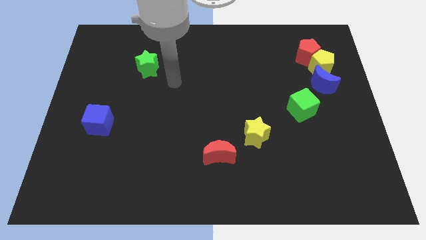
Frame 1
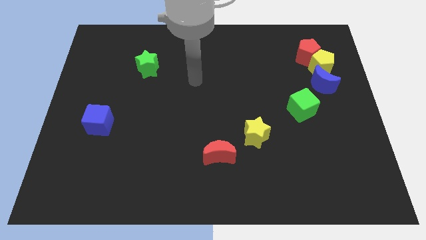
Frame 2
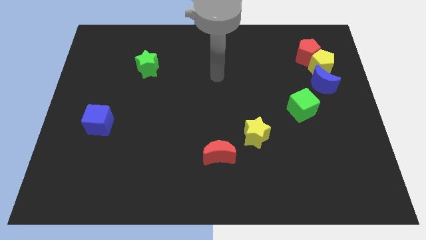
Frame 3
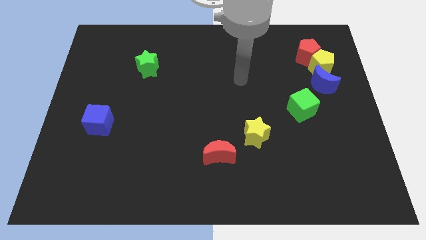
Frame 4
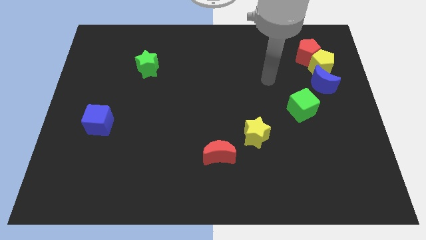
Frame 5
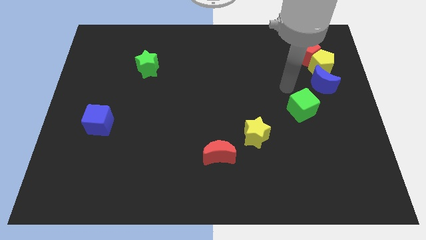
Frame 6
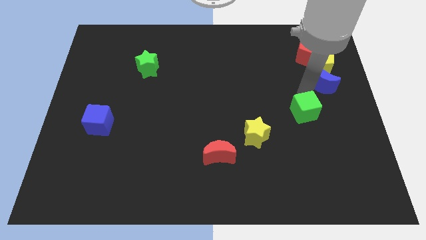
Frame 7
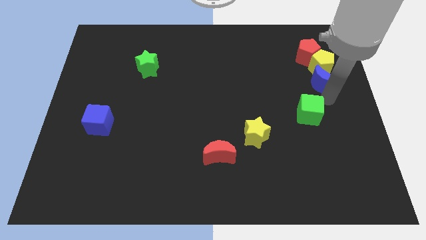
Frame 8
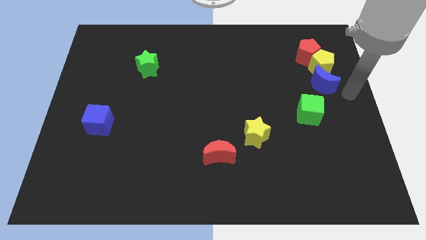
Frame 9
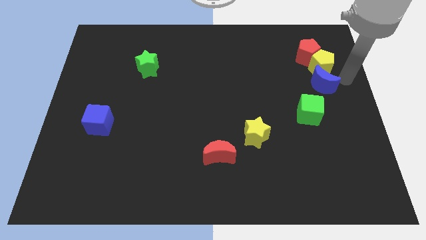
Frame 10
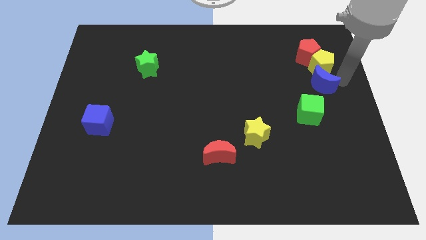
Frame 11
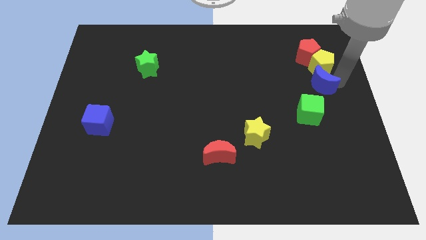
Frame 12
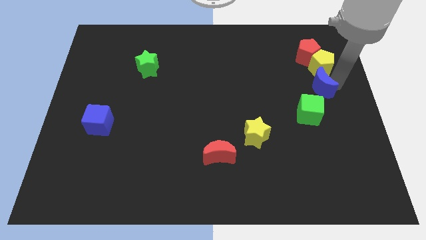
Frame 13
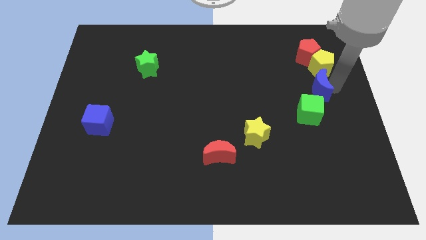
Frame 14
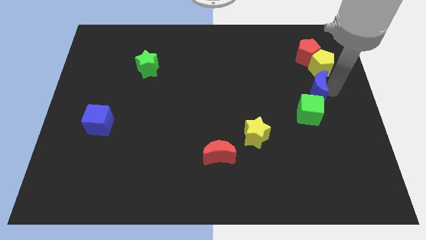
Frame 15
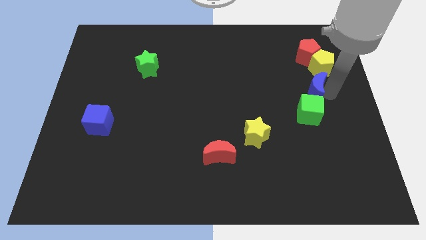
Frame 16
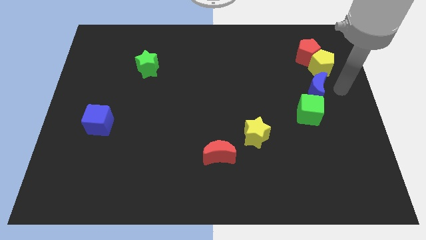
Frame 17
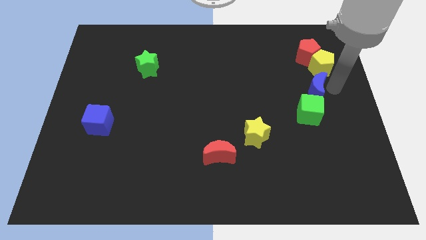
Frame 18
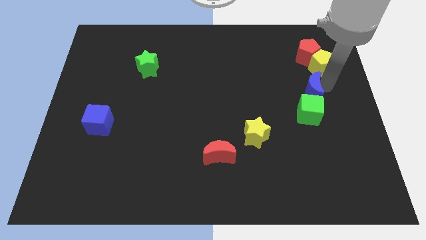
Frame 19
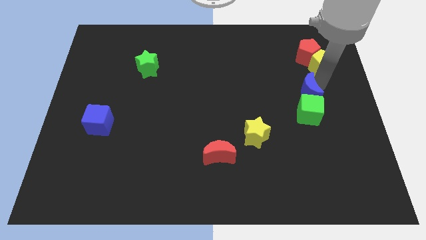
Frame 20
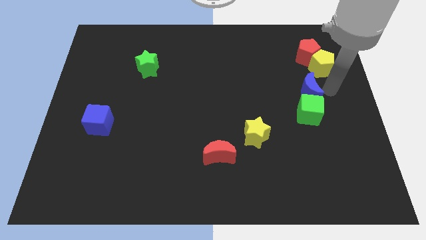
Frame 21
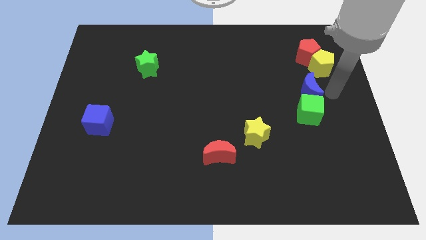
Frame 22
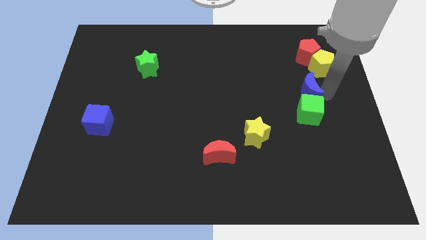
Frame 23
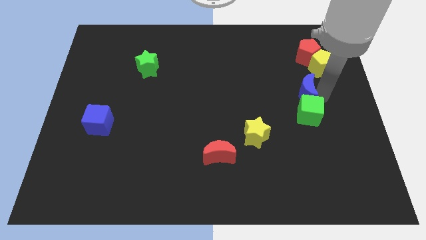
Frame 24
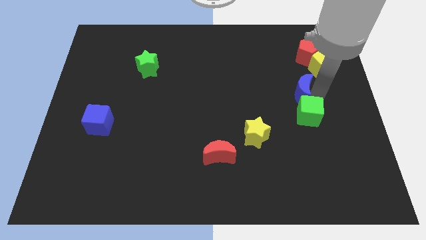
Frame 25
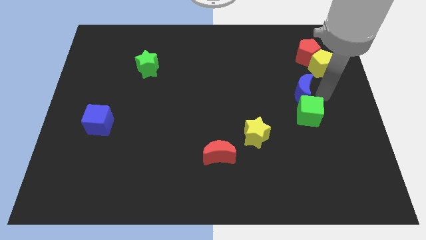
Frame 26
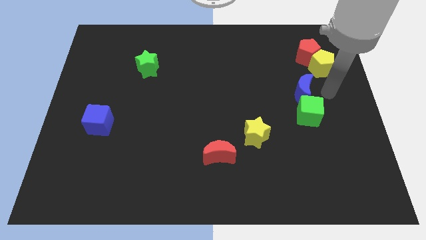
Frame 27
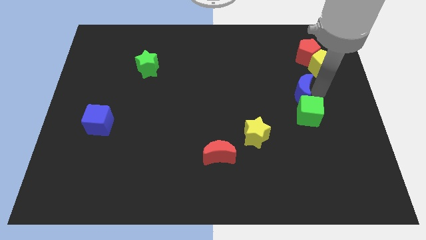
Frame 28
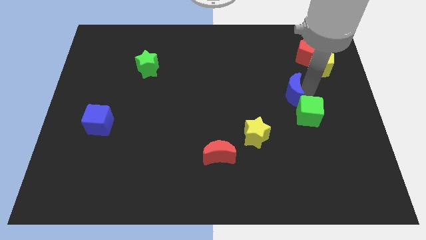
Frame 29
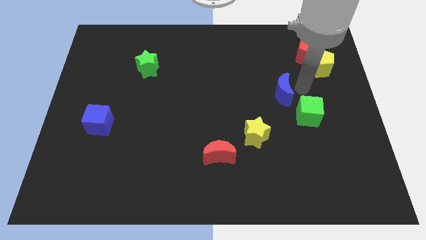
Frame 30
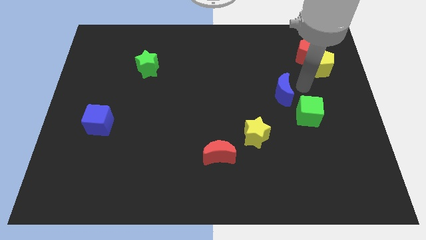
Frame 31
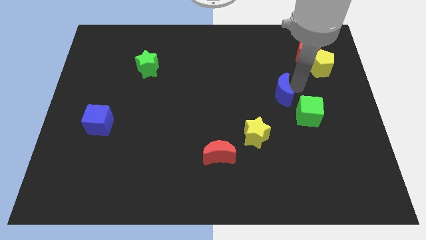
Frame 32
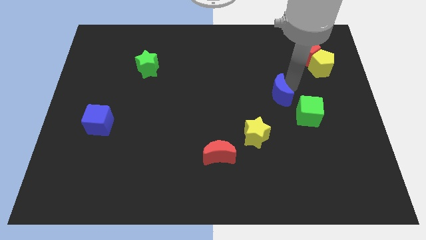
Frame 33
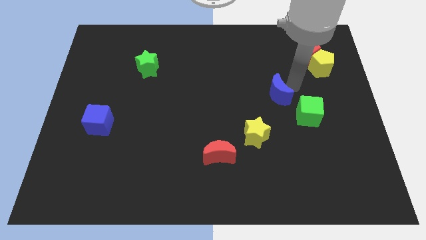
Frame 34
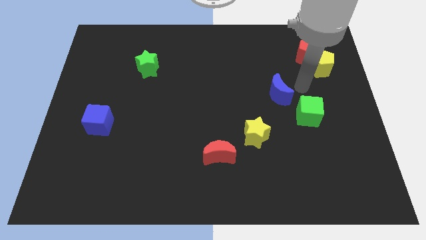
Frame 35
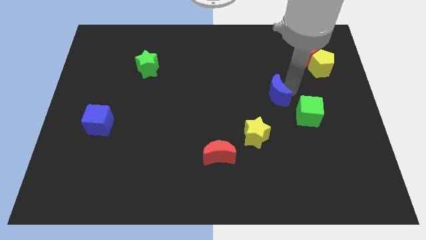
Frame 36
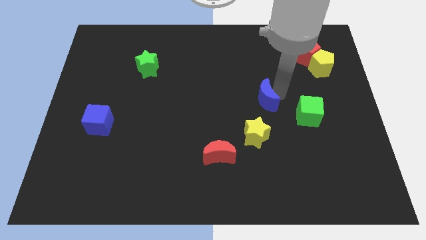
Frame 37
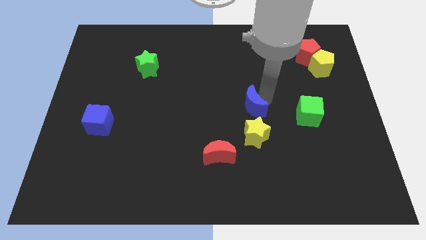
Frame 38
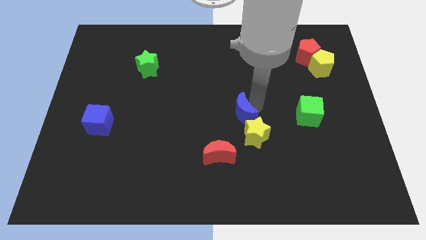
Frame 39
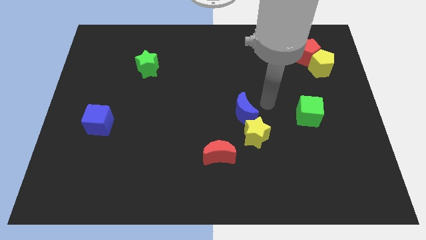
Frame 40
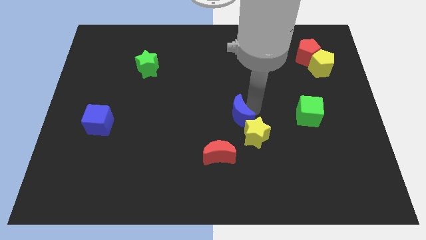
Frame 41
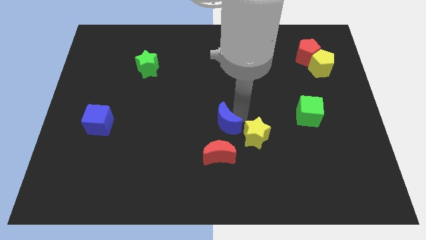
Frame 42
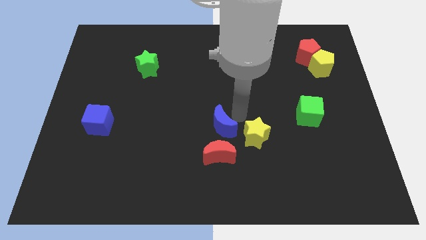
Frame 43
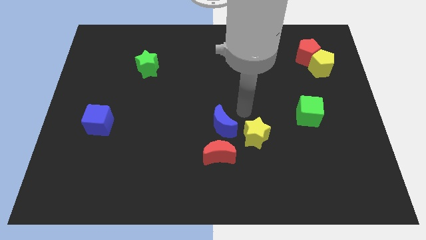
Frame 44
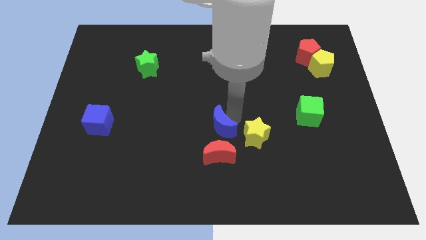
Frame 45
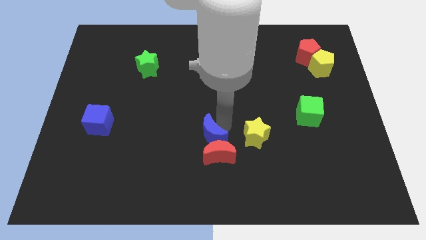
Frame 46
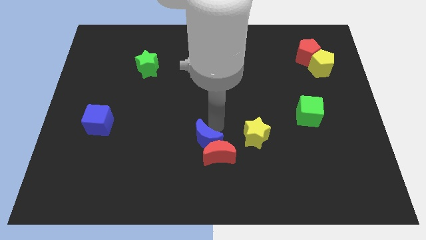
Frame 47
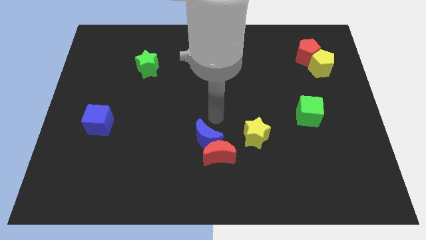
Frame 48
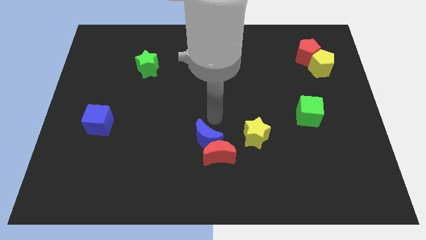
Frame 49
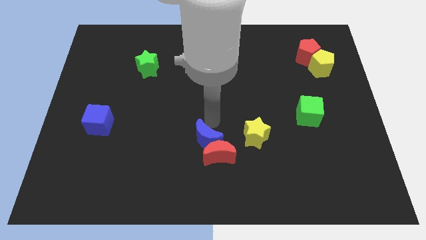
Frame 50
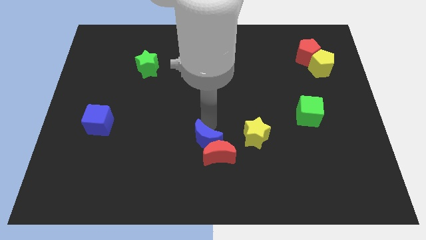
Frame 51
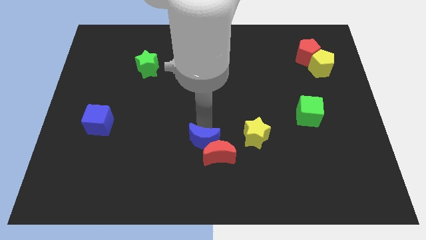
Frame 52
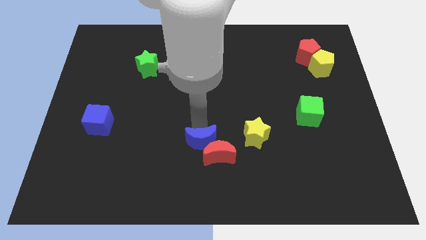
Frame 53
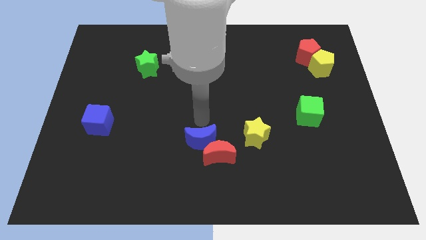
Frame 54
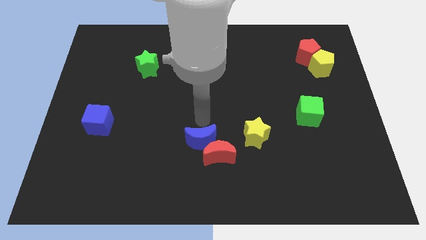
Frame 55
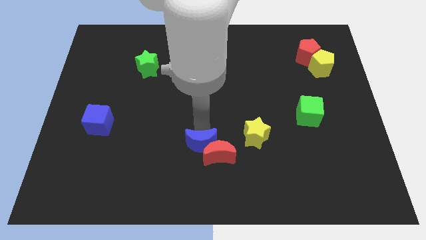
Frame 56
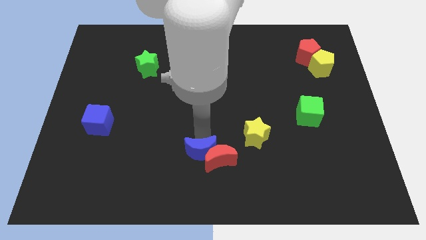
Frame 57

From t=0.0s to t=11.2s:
push the blue moon to the bottom left of the red moon

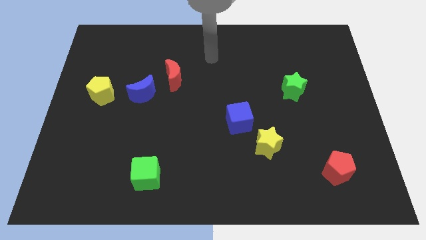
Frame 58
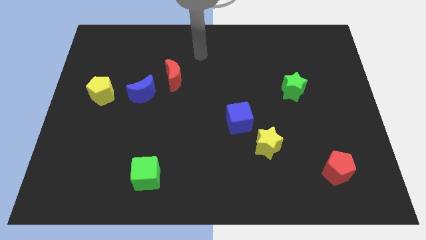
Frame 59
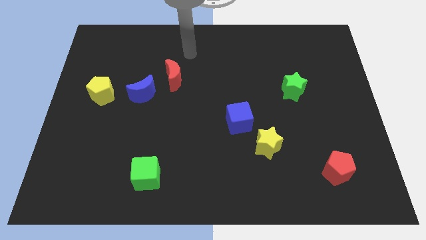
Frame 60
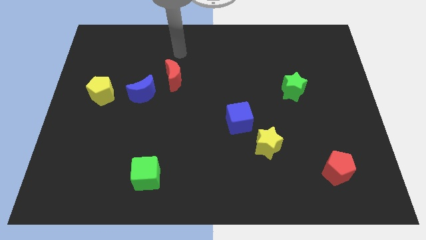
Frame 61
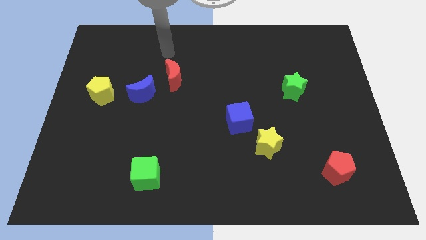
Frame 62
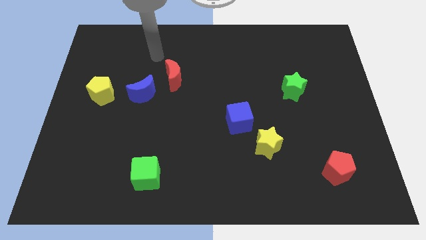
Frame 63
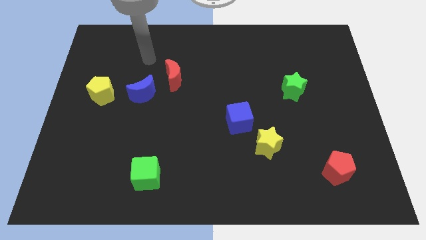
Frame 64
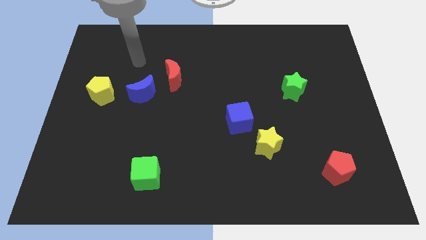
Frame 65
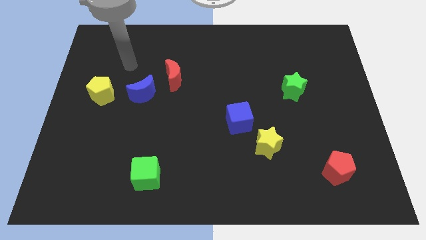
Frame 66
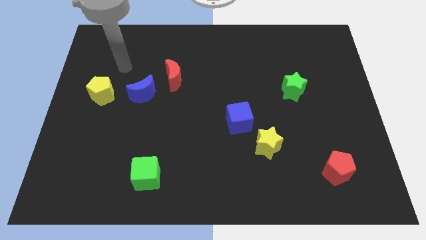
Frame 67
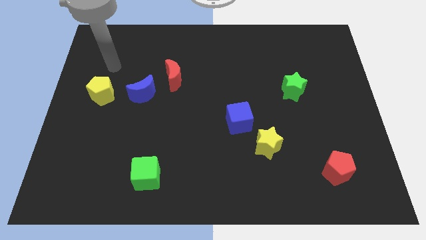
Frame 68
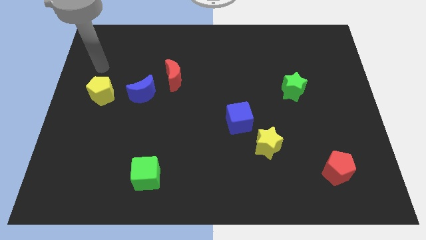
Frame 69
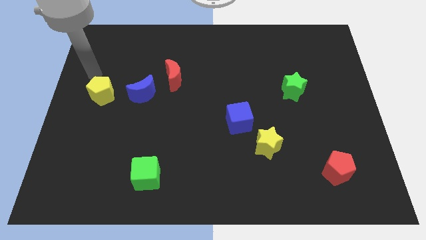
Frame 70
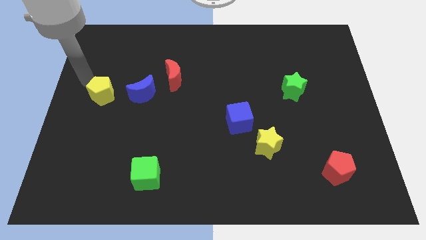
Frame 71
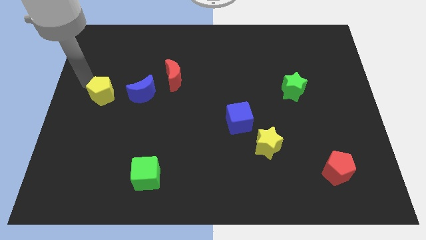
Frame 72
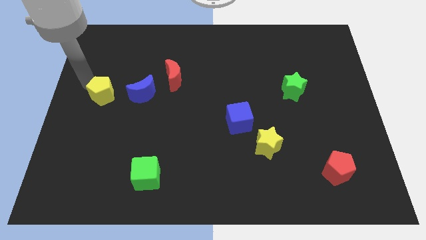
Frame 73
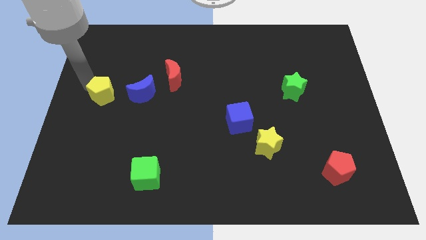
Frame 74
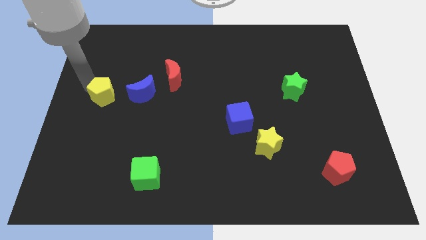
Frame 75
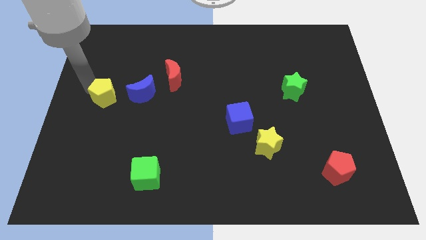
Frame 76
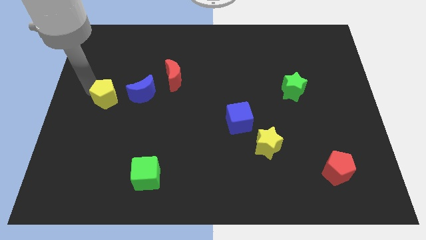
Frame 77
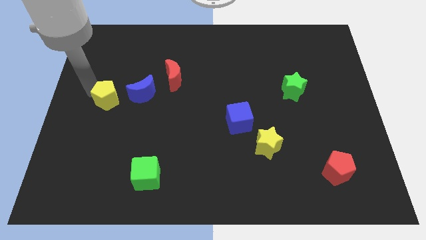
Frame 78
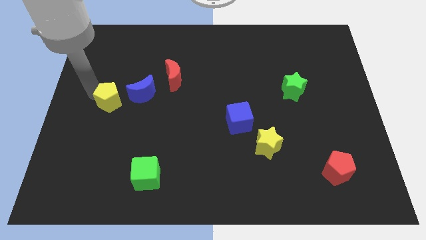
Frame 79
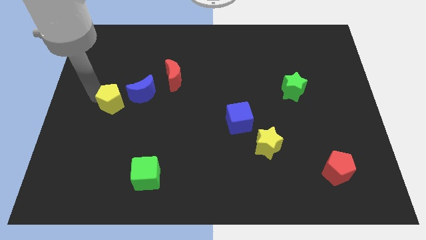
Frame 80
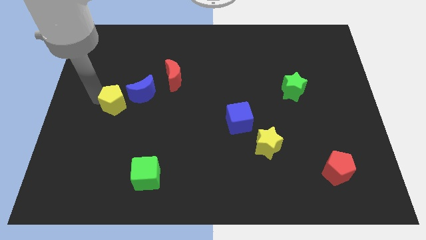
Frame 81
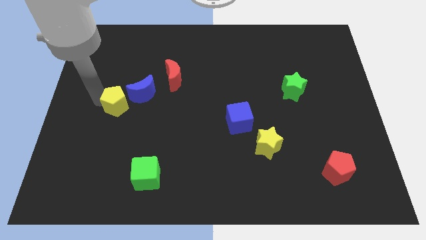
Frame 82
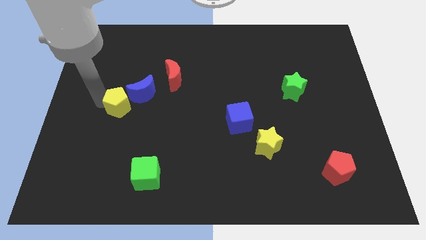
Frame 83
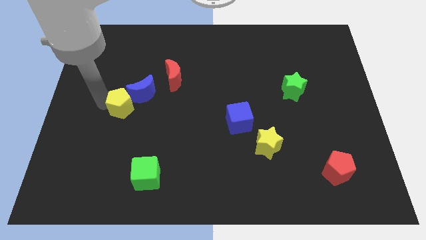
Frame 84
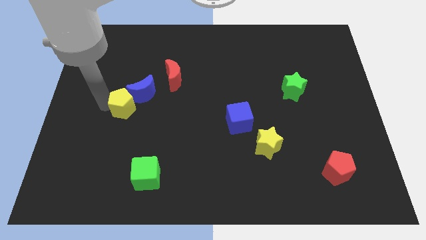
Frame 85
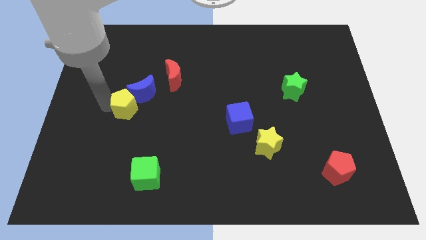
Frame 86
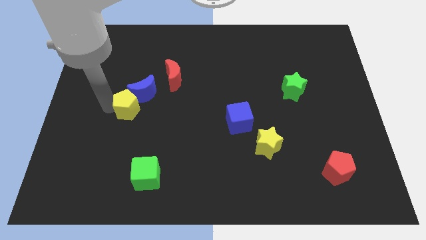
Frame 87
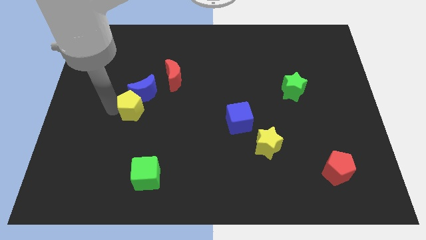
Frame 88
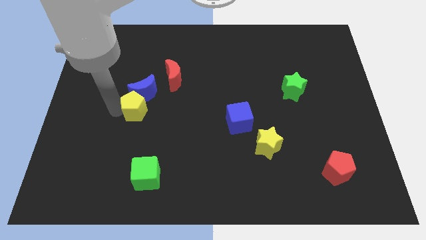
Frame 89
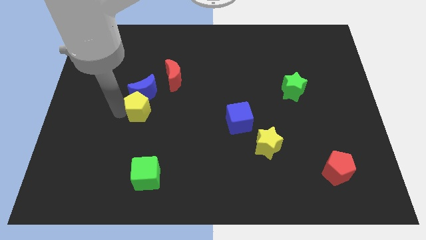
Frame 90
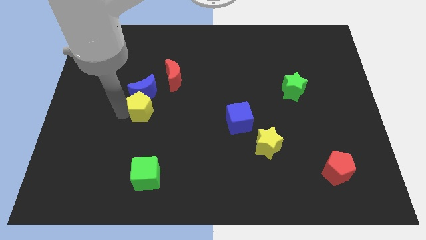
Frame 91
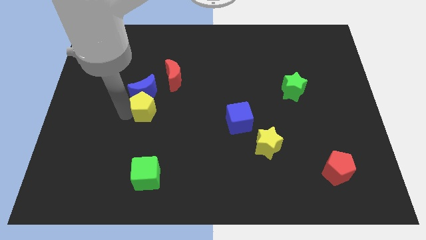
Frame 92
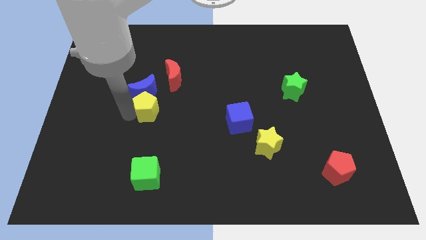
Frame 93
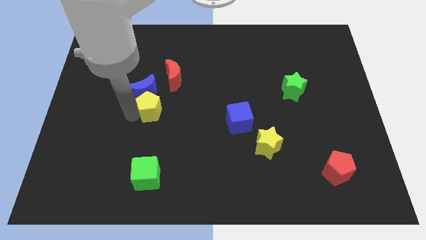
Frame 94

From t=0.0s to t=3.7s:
put the yellow pentagon below the red moon
